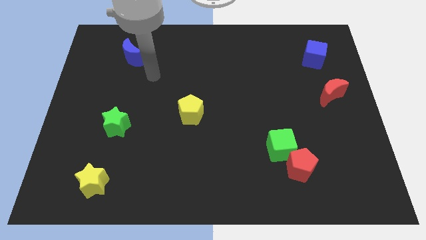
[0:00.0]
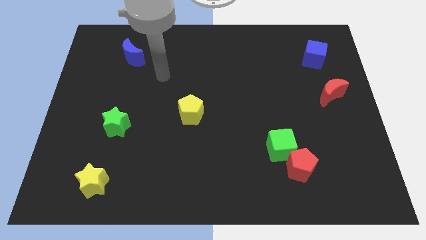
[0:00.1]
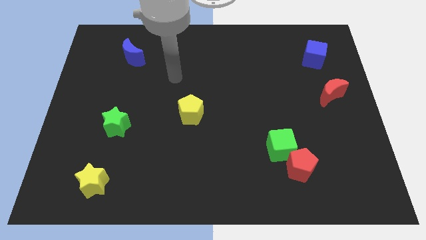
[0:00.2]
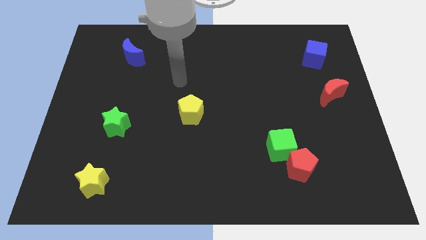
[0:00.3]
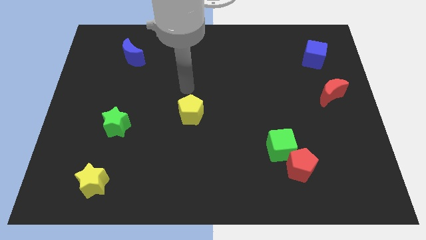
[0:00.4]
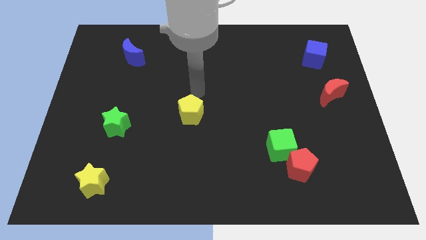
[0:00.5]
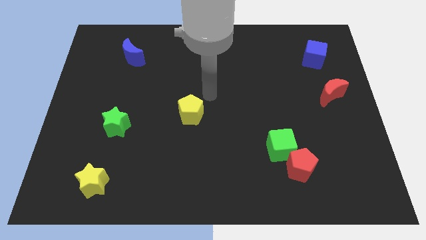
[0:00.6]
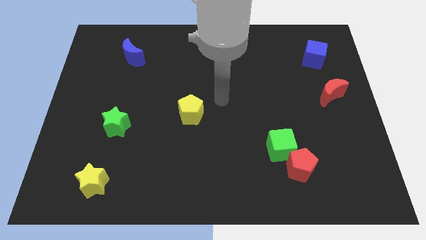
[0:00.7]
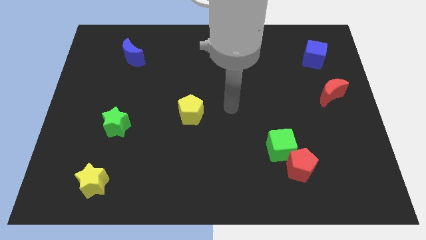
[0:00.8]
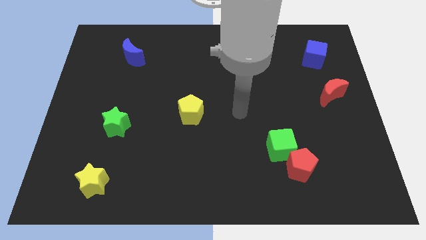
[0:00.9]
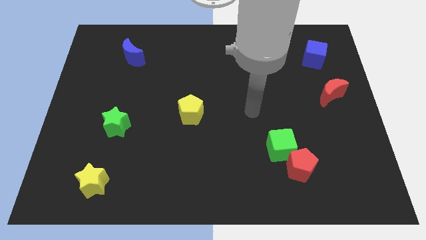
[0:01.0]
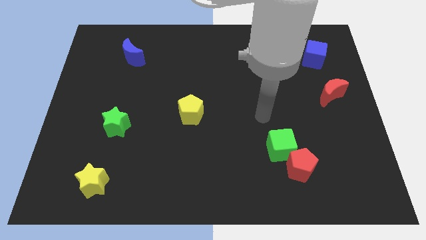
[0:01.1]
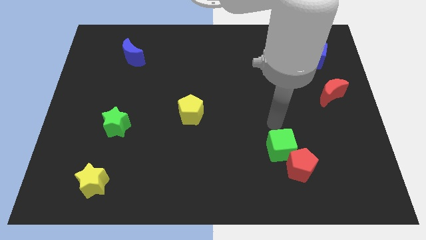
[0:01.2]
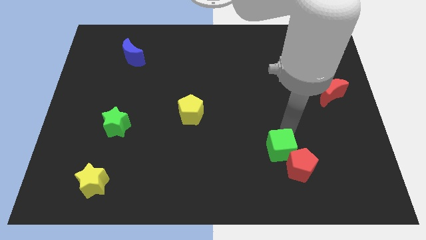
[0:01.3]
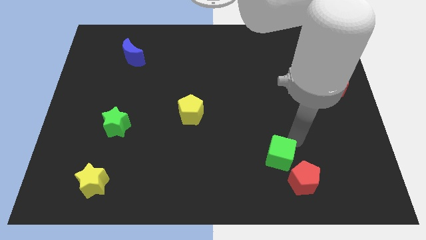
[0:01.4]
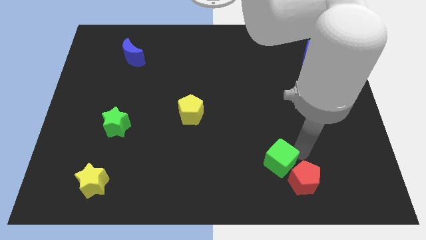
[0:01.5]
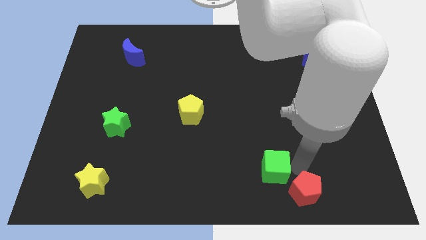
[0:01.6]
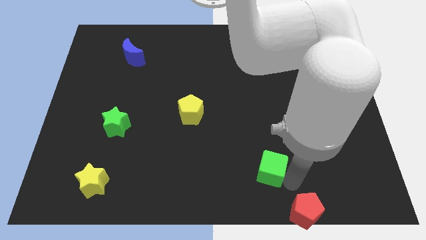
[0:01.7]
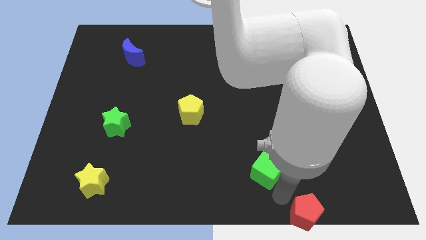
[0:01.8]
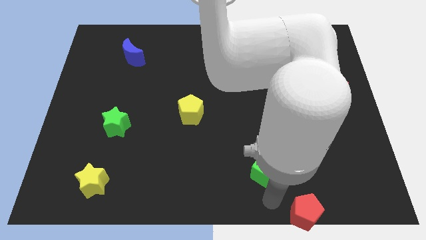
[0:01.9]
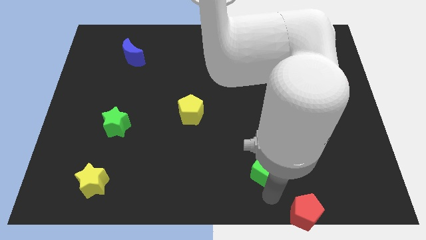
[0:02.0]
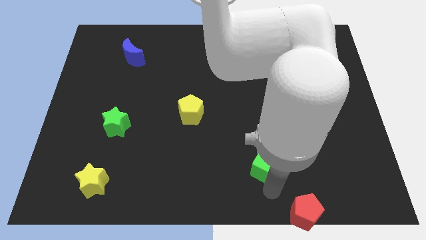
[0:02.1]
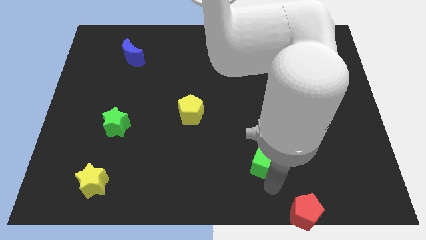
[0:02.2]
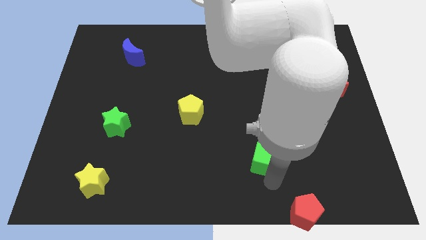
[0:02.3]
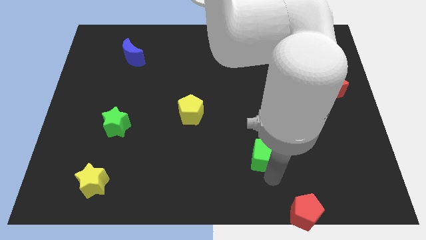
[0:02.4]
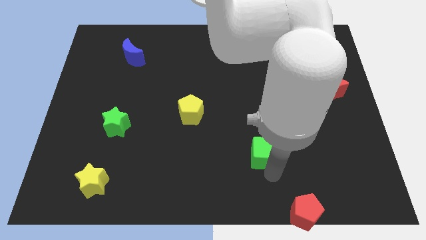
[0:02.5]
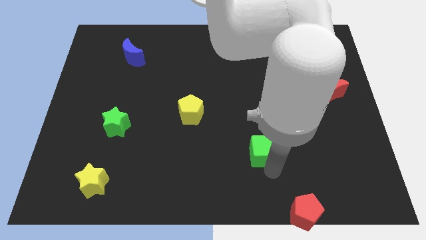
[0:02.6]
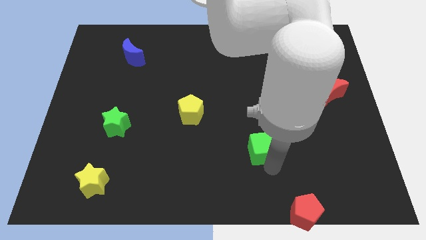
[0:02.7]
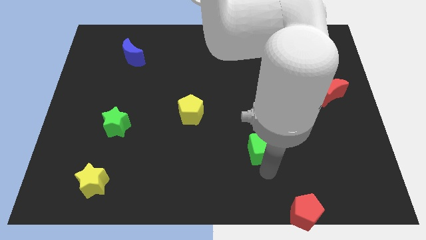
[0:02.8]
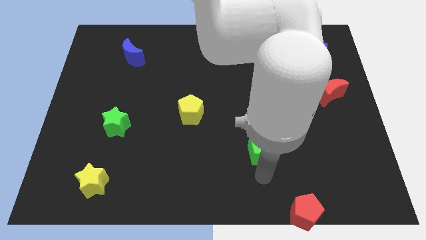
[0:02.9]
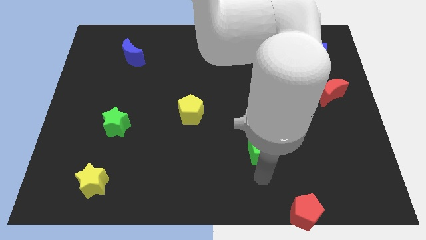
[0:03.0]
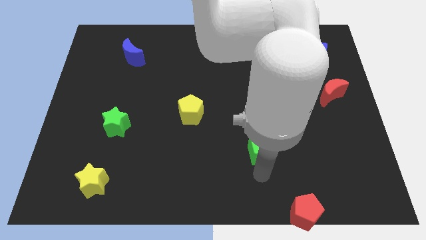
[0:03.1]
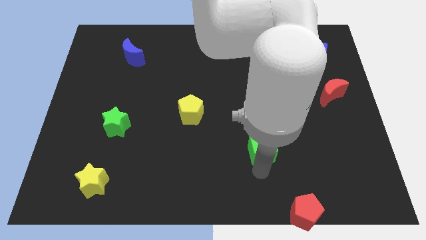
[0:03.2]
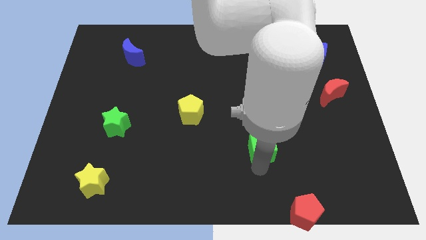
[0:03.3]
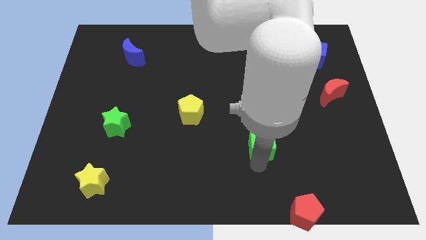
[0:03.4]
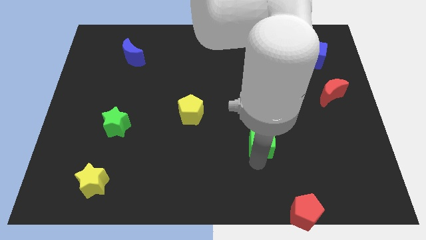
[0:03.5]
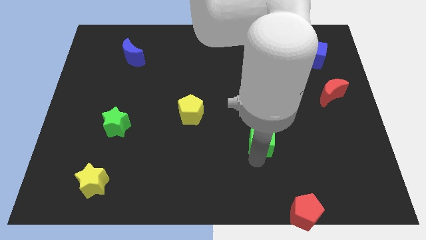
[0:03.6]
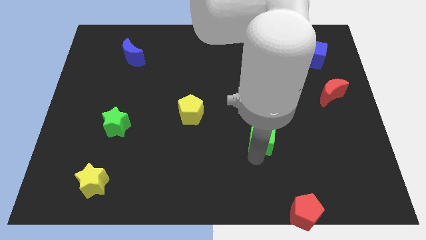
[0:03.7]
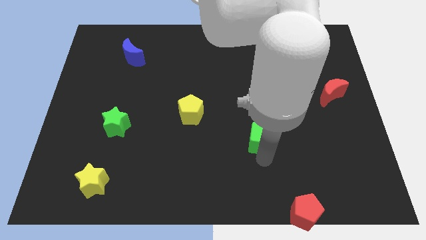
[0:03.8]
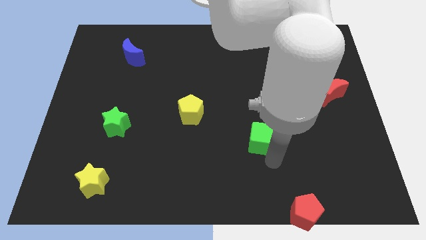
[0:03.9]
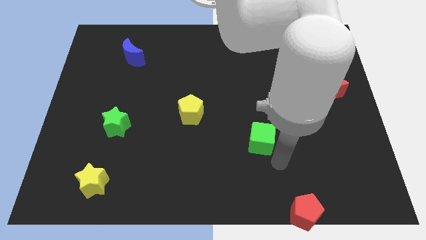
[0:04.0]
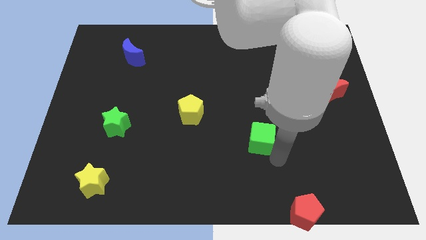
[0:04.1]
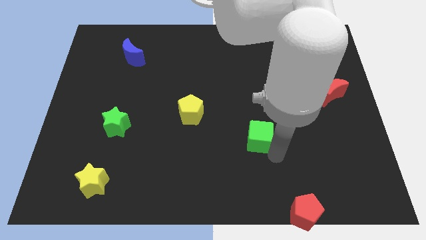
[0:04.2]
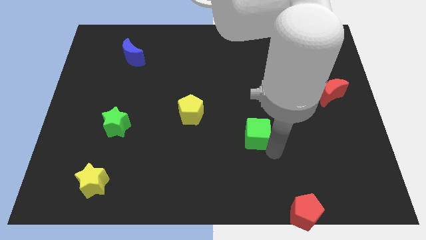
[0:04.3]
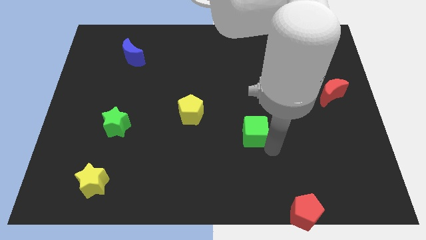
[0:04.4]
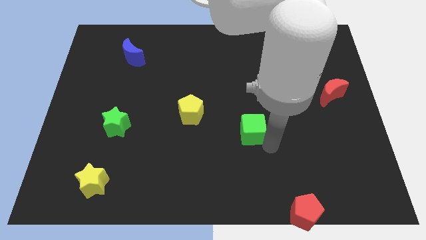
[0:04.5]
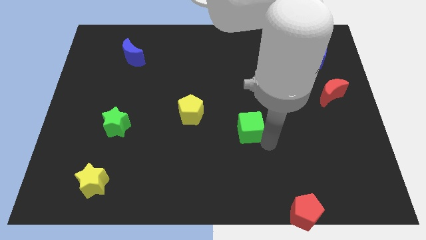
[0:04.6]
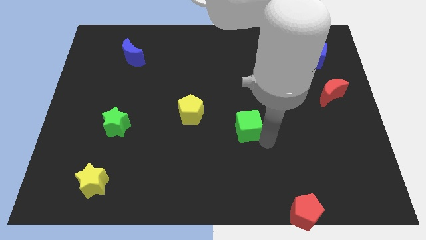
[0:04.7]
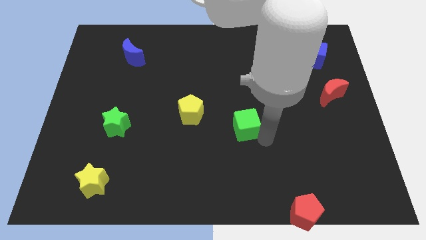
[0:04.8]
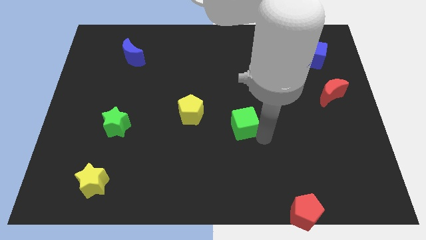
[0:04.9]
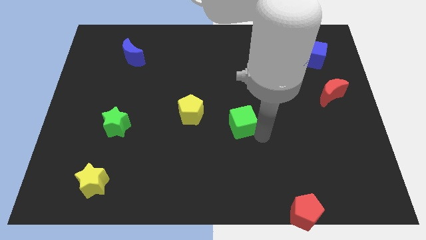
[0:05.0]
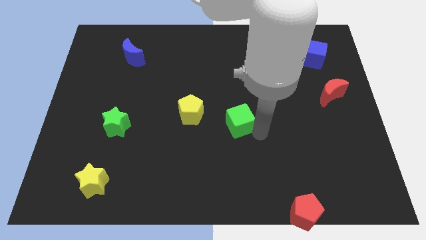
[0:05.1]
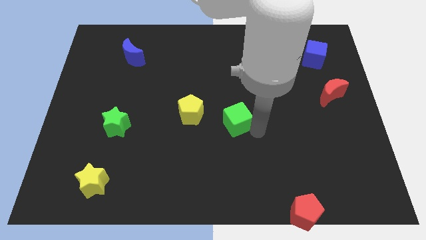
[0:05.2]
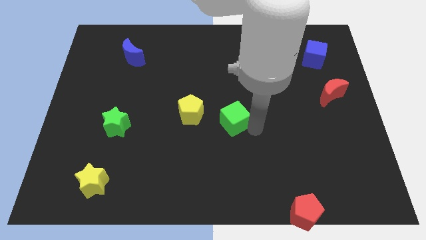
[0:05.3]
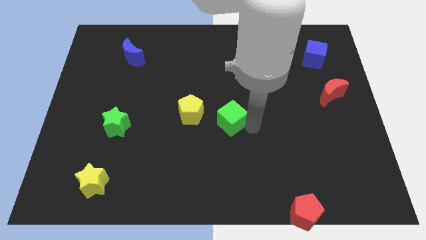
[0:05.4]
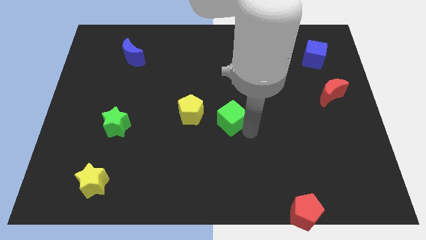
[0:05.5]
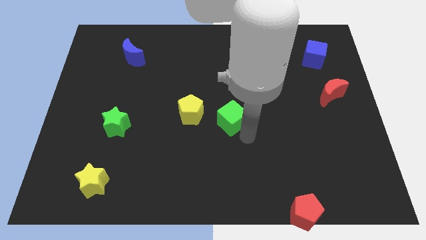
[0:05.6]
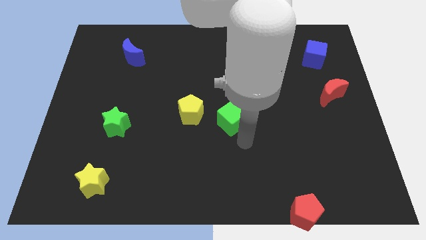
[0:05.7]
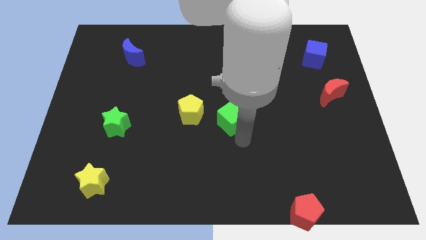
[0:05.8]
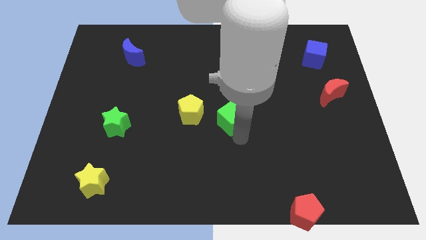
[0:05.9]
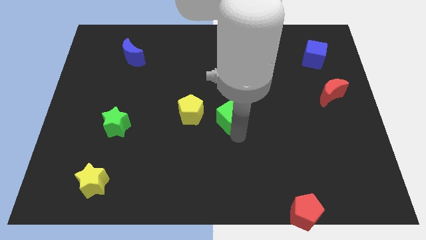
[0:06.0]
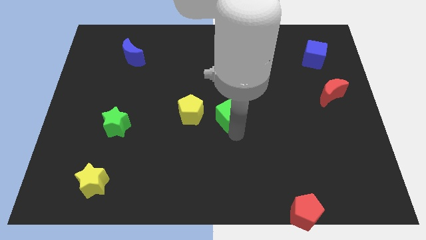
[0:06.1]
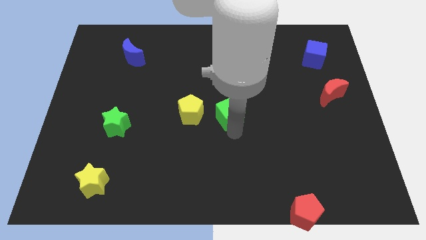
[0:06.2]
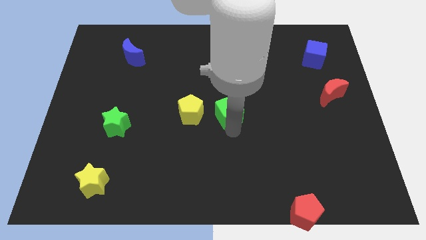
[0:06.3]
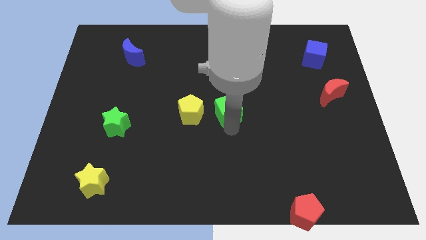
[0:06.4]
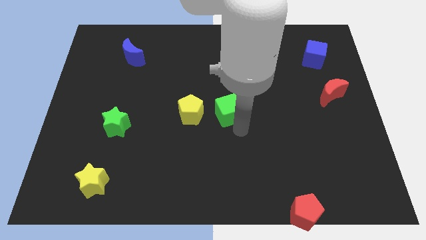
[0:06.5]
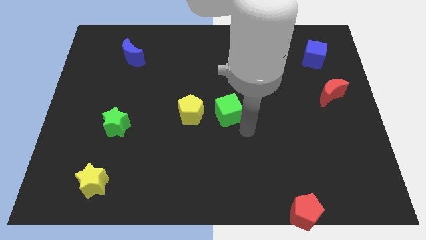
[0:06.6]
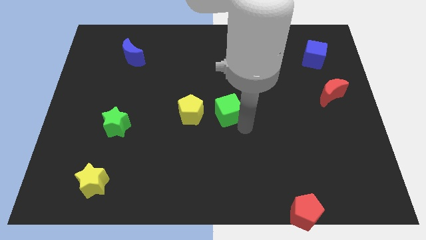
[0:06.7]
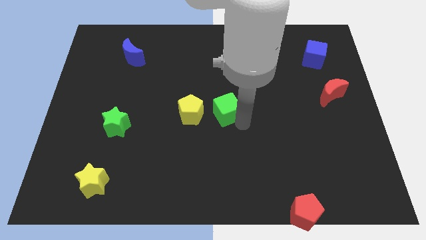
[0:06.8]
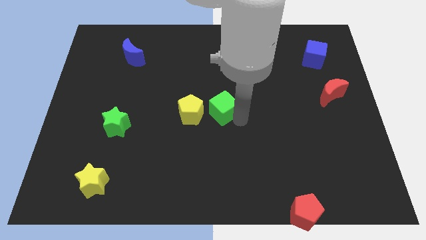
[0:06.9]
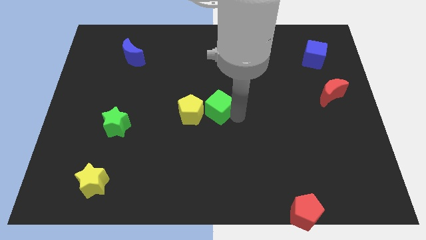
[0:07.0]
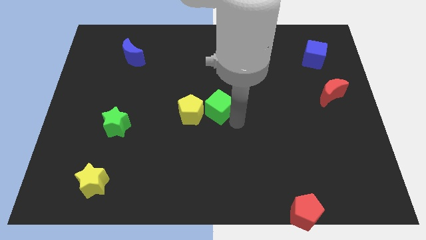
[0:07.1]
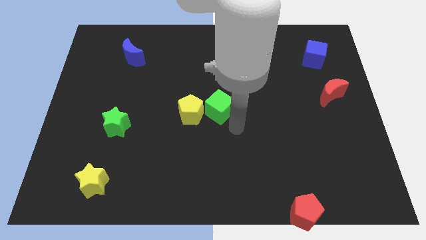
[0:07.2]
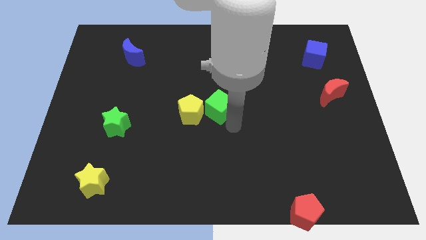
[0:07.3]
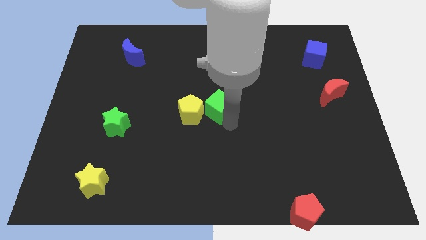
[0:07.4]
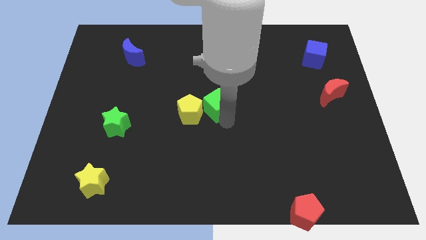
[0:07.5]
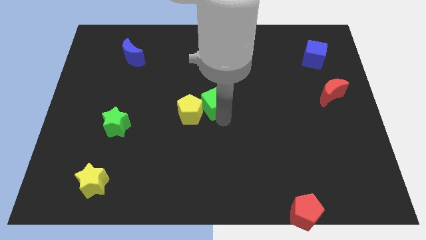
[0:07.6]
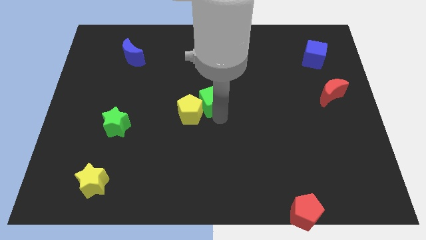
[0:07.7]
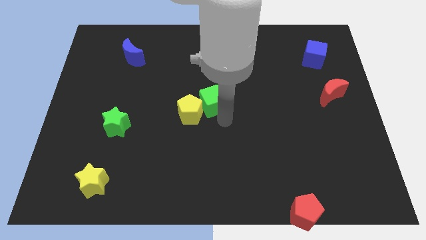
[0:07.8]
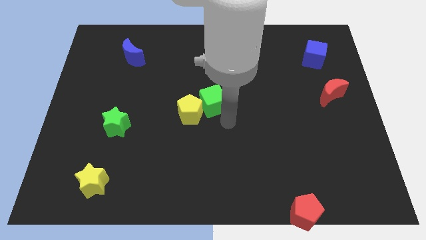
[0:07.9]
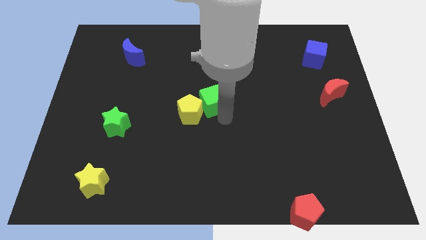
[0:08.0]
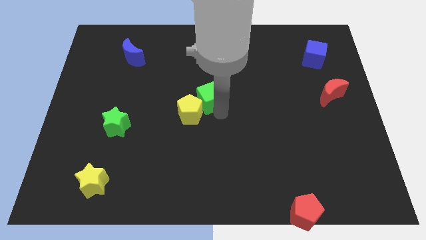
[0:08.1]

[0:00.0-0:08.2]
slide the green cube up and to the left diagonally
